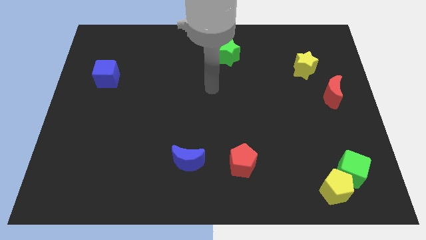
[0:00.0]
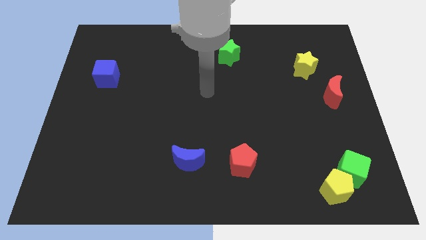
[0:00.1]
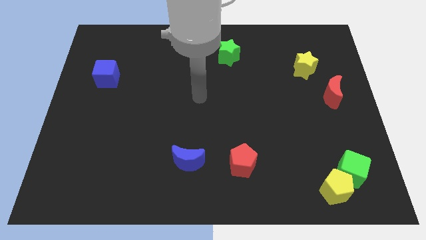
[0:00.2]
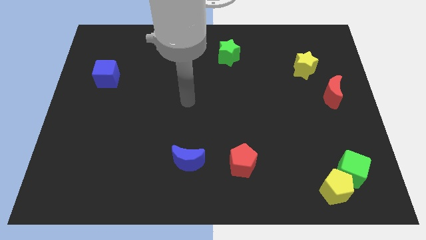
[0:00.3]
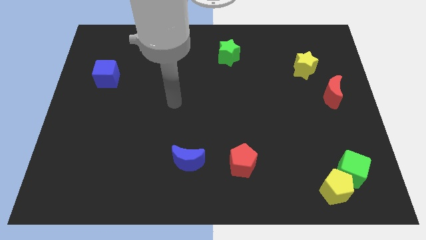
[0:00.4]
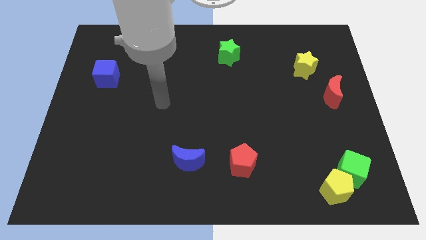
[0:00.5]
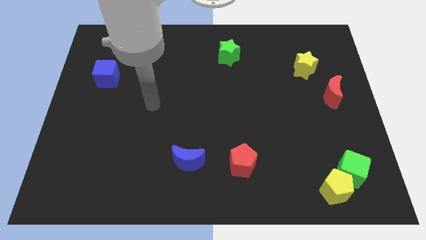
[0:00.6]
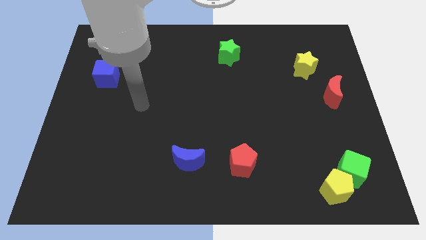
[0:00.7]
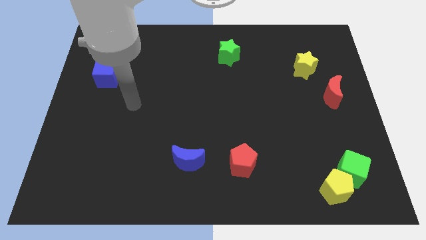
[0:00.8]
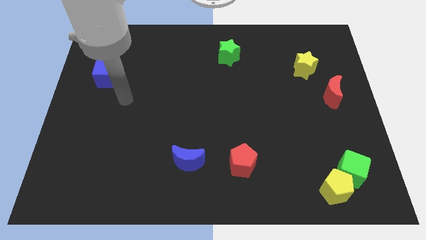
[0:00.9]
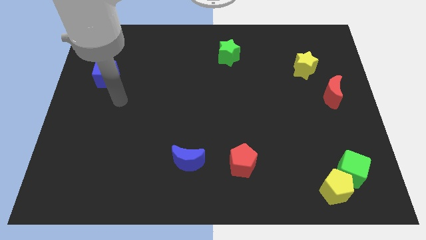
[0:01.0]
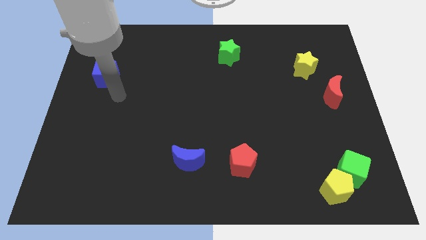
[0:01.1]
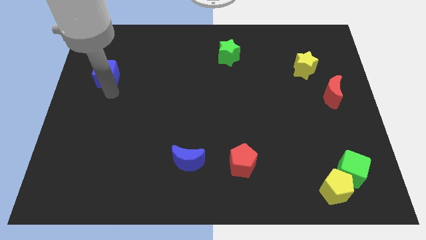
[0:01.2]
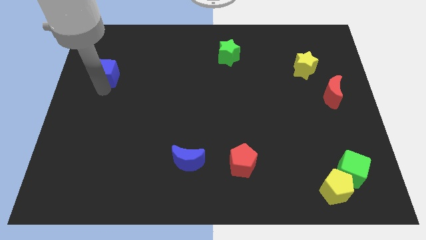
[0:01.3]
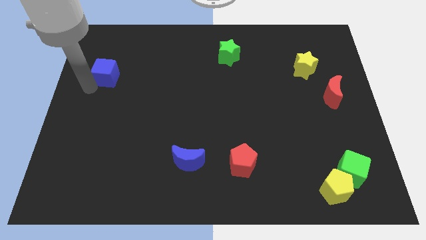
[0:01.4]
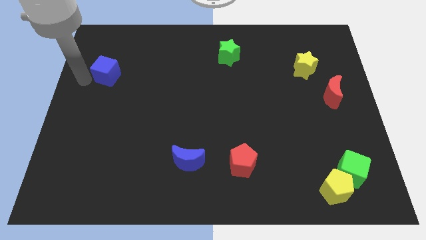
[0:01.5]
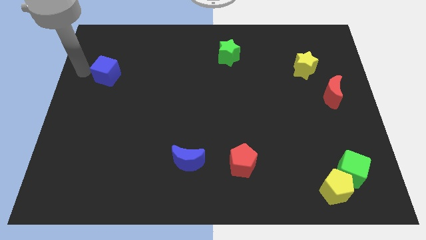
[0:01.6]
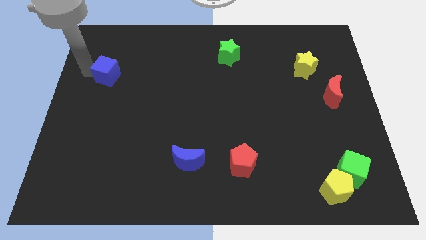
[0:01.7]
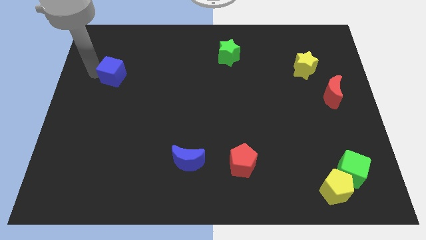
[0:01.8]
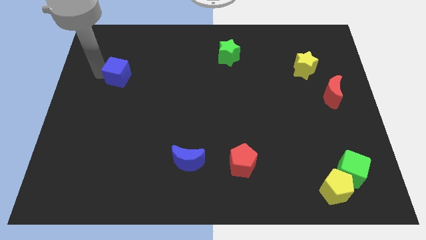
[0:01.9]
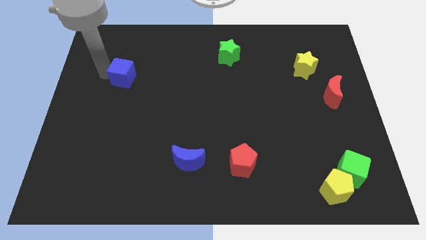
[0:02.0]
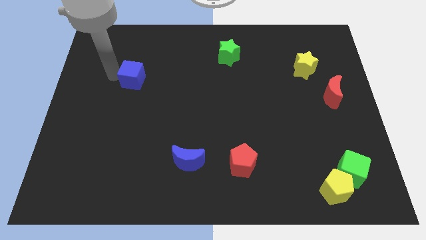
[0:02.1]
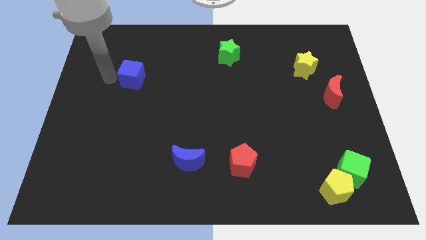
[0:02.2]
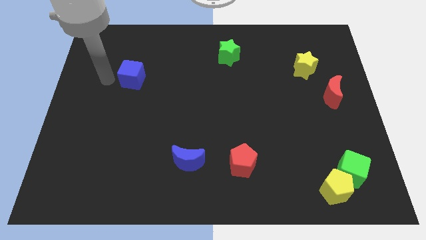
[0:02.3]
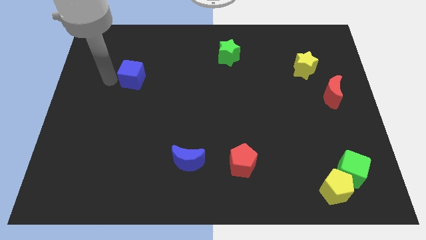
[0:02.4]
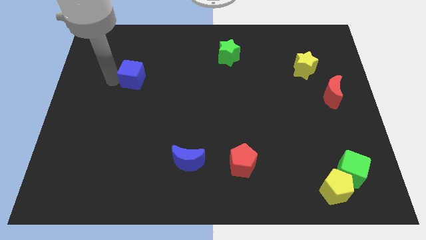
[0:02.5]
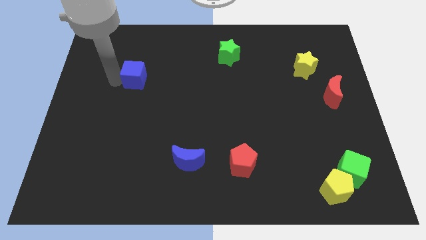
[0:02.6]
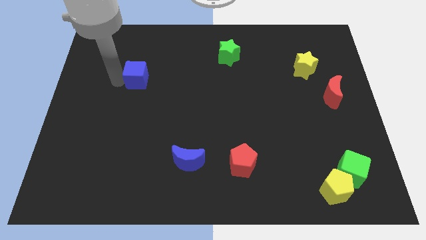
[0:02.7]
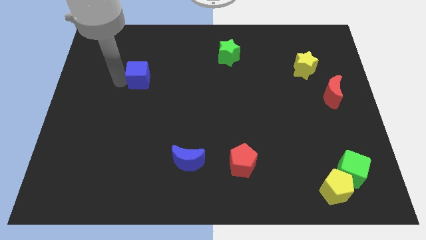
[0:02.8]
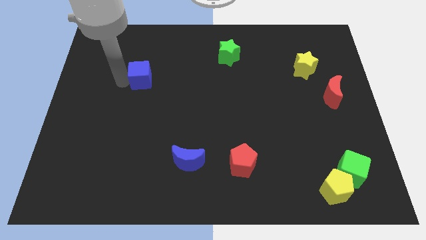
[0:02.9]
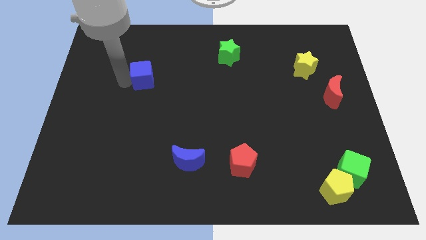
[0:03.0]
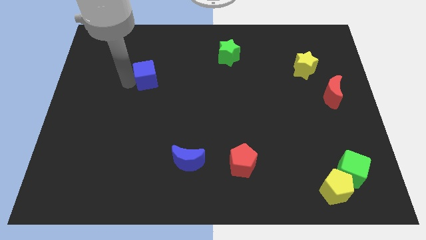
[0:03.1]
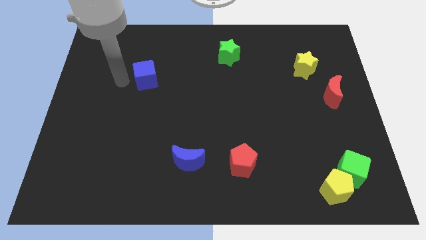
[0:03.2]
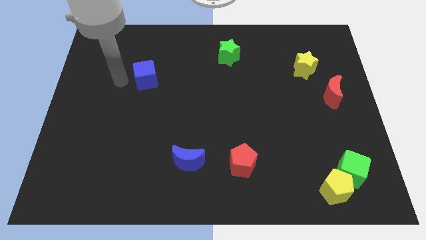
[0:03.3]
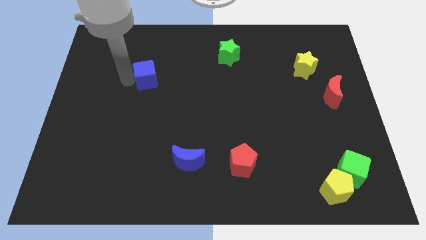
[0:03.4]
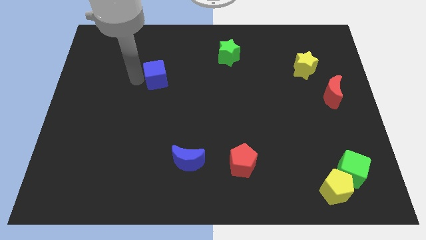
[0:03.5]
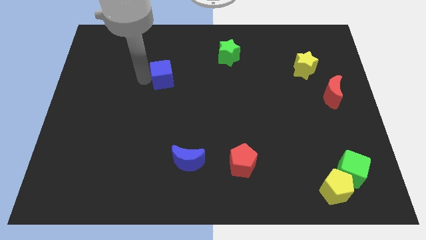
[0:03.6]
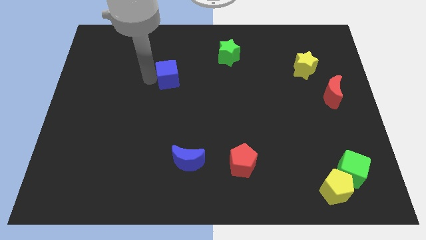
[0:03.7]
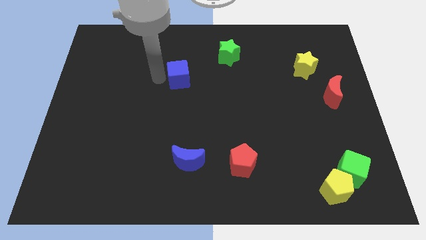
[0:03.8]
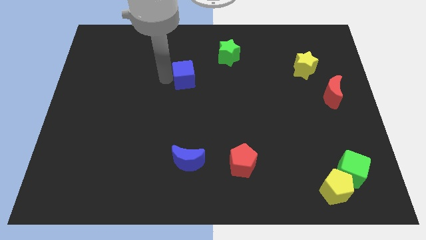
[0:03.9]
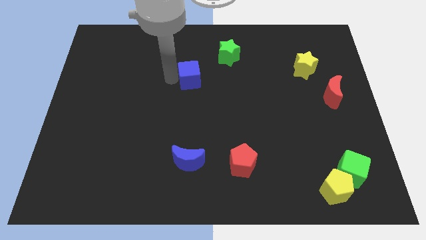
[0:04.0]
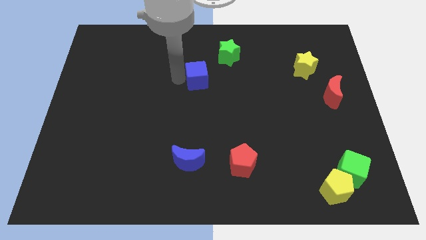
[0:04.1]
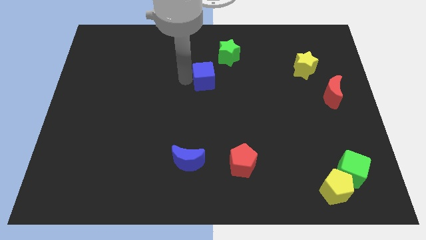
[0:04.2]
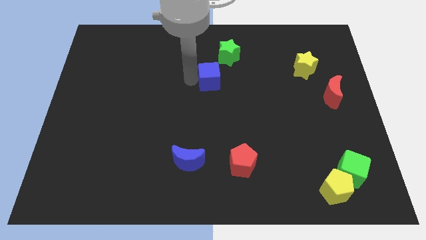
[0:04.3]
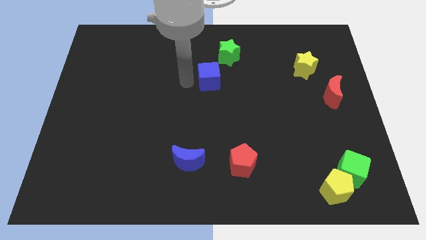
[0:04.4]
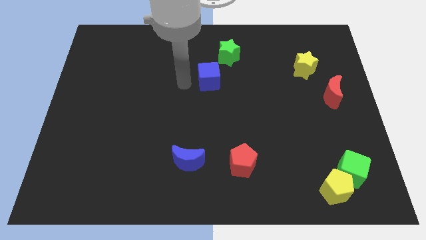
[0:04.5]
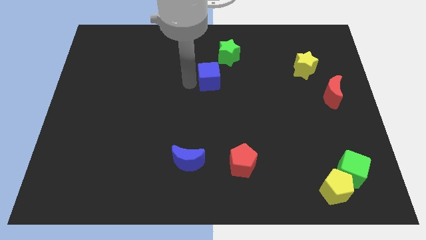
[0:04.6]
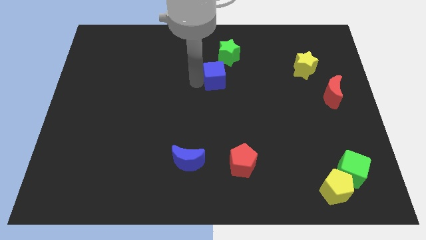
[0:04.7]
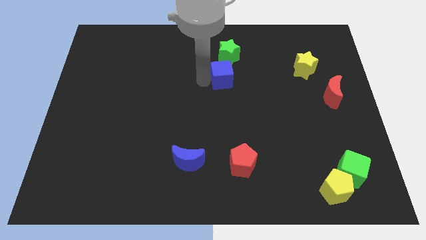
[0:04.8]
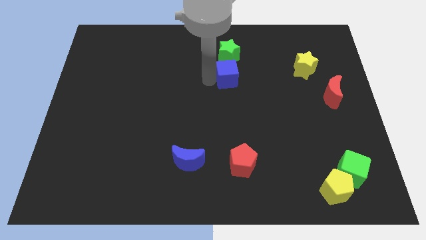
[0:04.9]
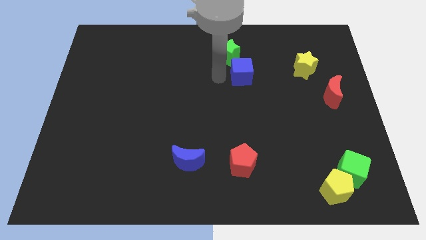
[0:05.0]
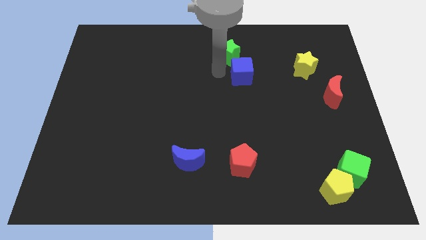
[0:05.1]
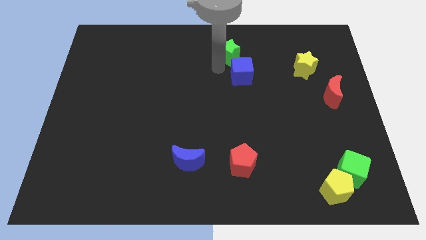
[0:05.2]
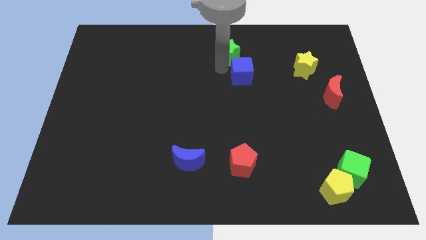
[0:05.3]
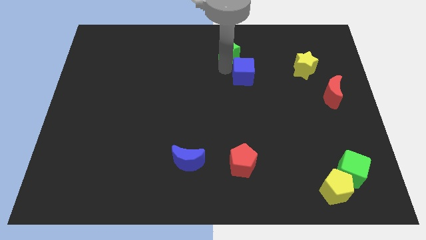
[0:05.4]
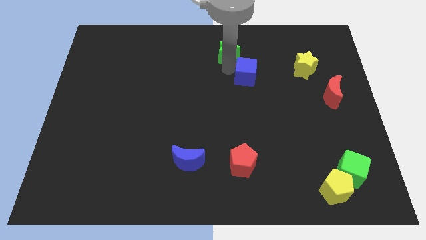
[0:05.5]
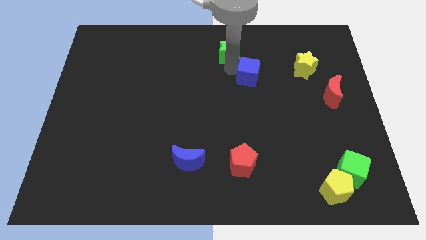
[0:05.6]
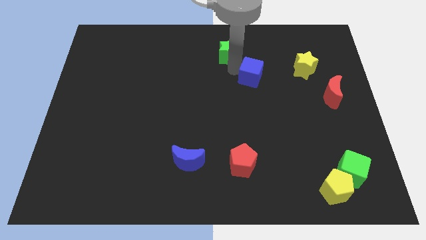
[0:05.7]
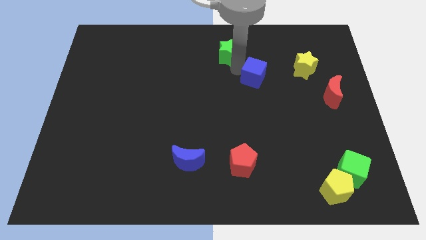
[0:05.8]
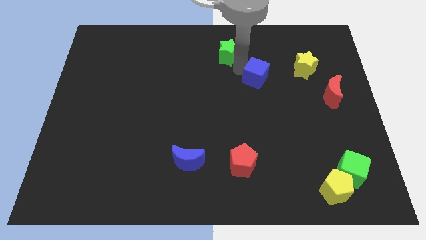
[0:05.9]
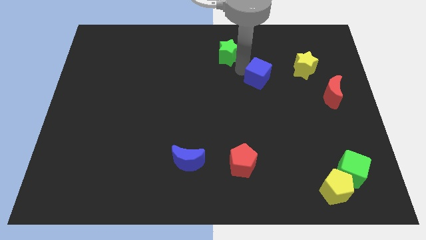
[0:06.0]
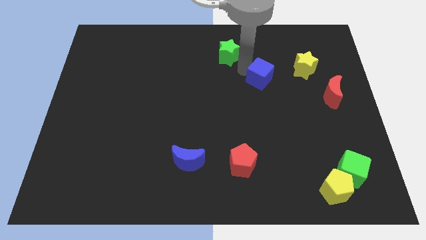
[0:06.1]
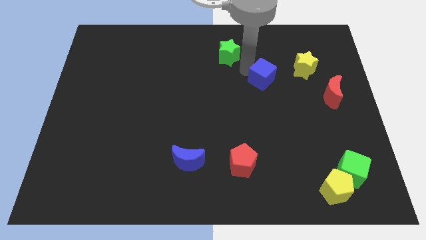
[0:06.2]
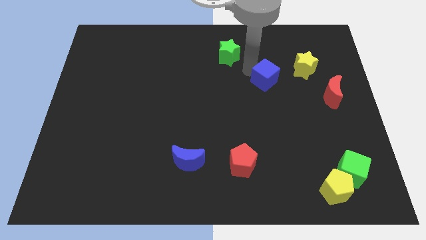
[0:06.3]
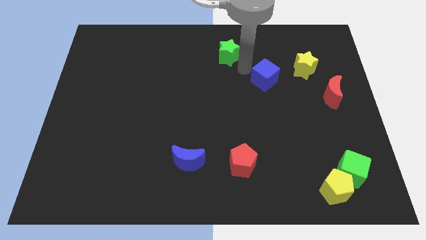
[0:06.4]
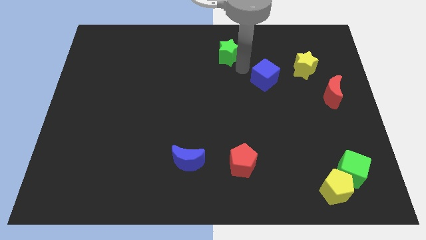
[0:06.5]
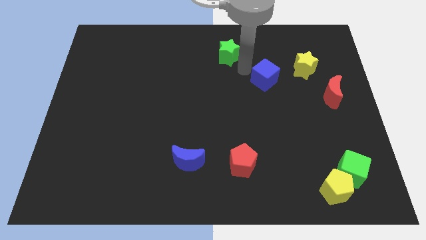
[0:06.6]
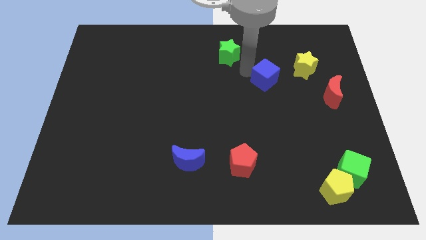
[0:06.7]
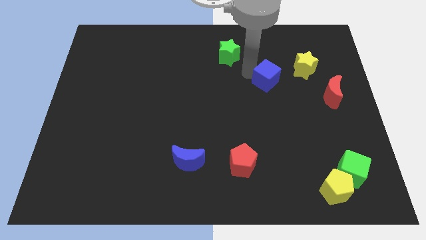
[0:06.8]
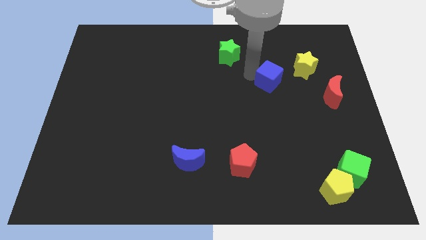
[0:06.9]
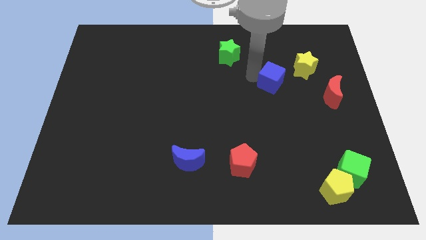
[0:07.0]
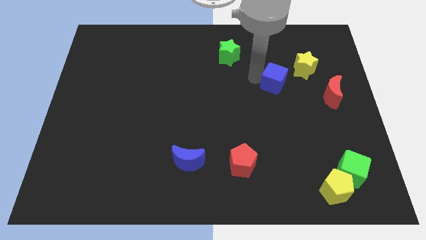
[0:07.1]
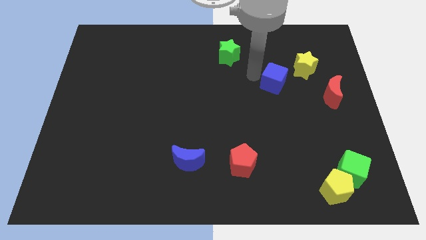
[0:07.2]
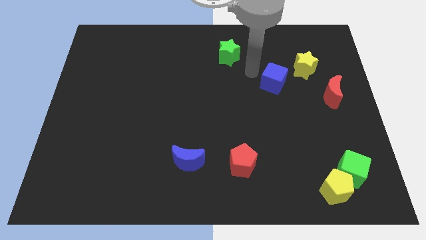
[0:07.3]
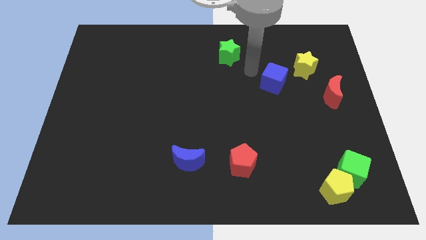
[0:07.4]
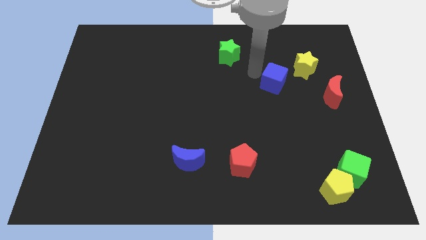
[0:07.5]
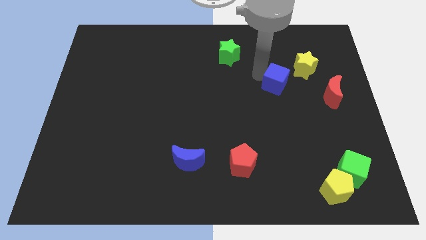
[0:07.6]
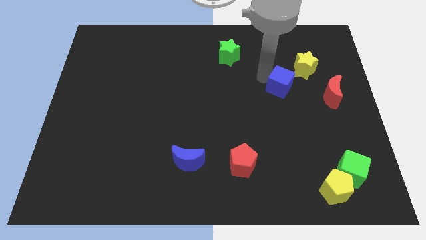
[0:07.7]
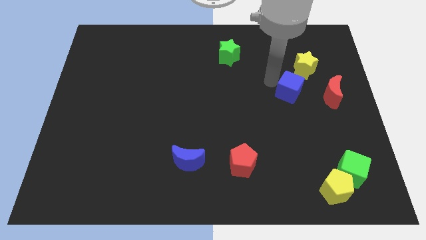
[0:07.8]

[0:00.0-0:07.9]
push the blue cube below the yellow star
